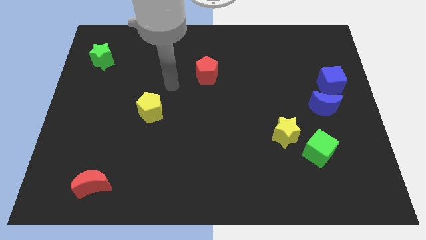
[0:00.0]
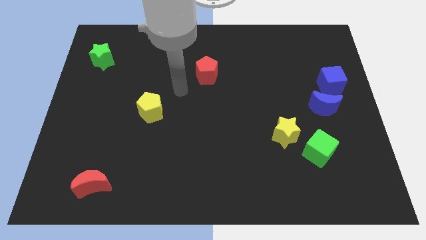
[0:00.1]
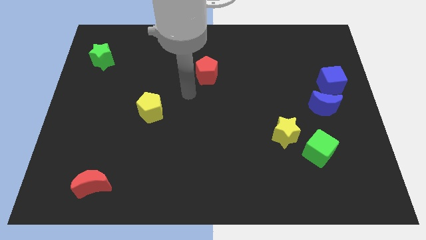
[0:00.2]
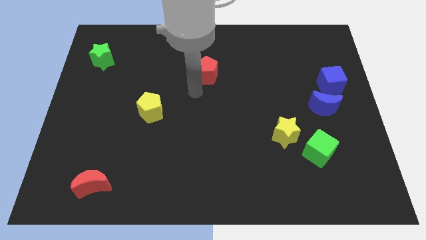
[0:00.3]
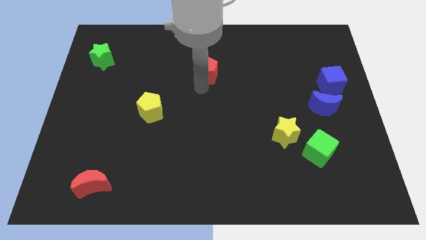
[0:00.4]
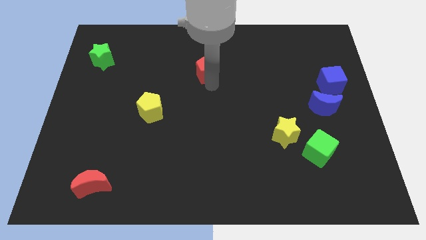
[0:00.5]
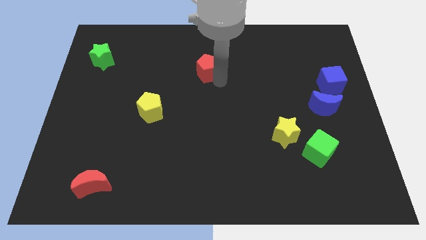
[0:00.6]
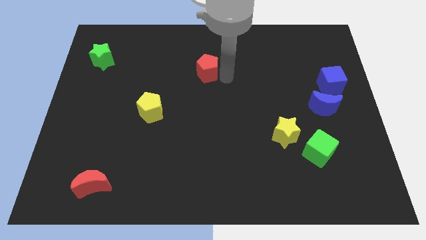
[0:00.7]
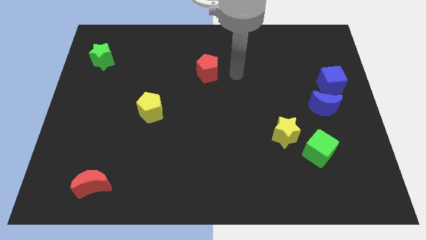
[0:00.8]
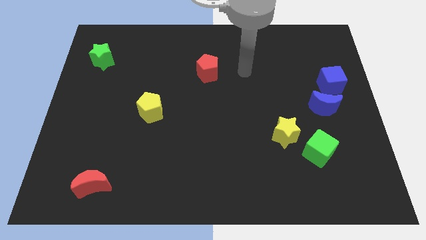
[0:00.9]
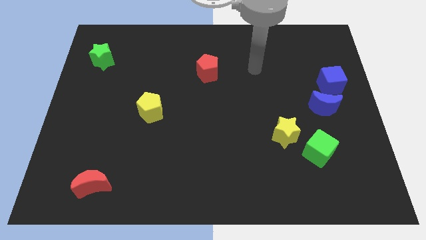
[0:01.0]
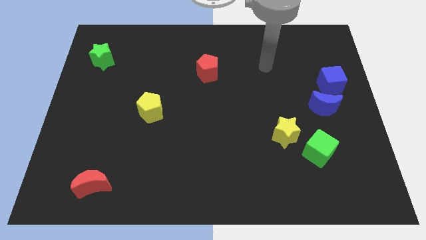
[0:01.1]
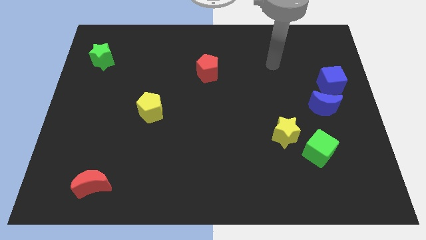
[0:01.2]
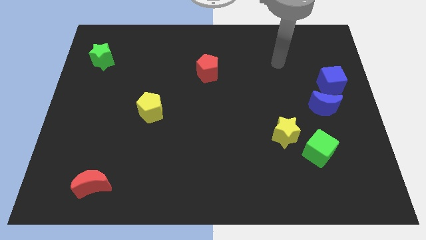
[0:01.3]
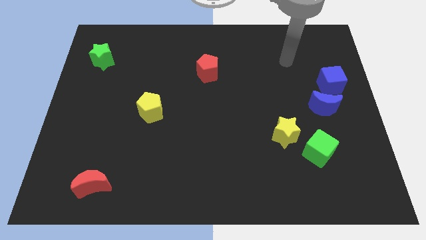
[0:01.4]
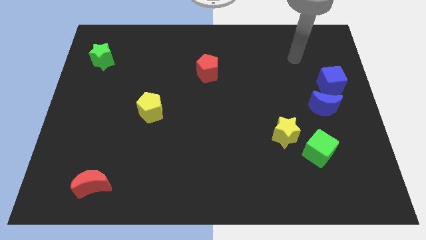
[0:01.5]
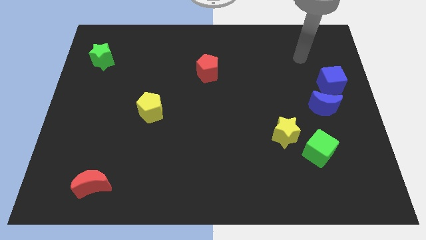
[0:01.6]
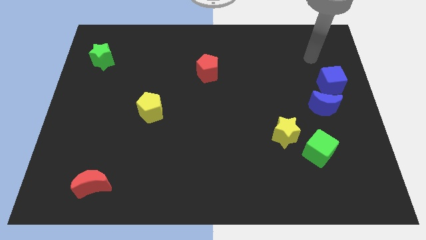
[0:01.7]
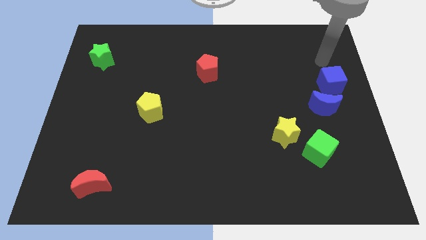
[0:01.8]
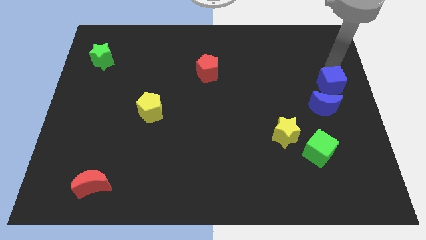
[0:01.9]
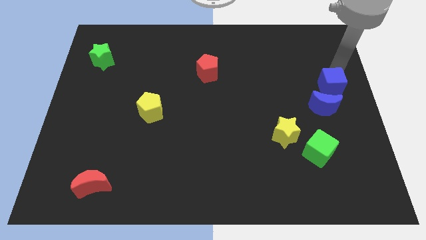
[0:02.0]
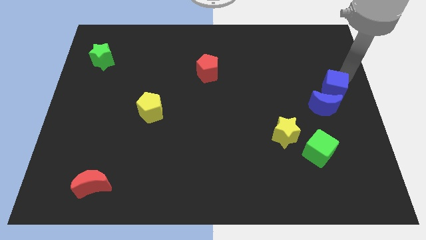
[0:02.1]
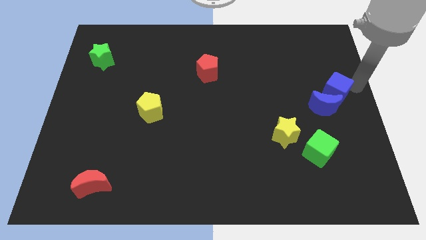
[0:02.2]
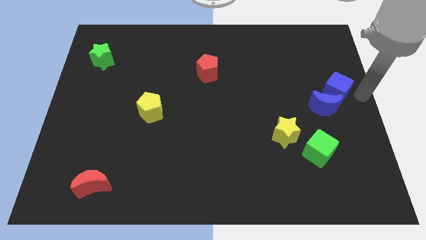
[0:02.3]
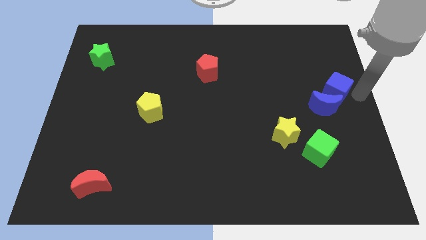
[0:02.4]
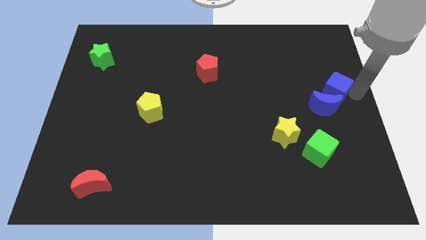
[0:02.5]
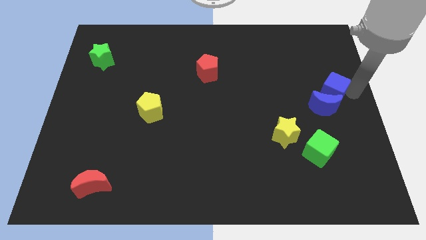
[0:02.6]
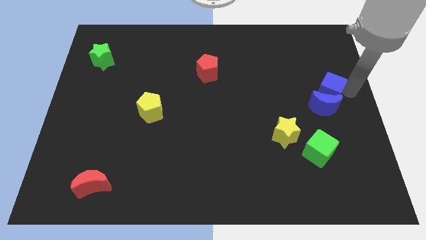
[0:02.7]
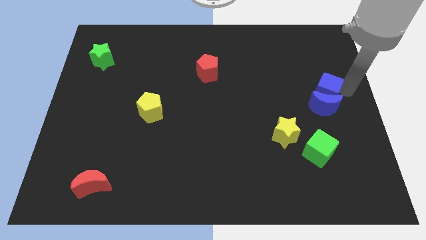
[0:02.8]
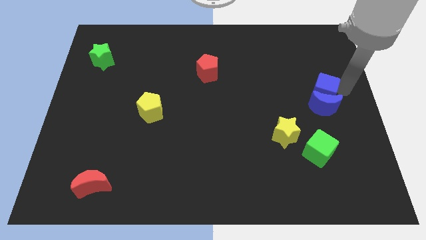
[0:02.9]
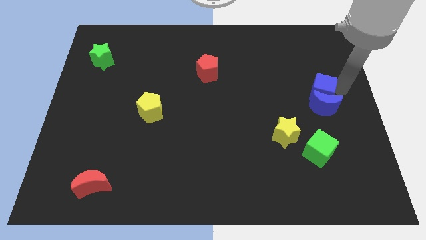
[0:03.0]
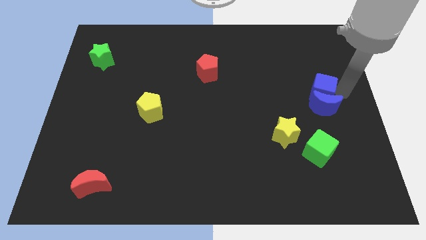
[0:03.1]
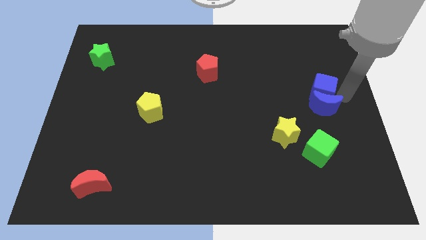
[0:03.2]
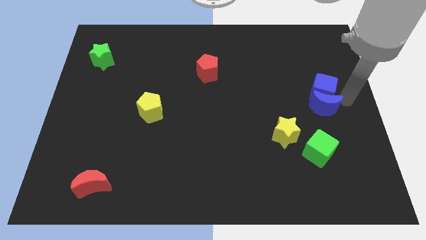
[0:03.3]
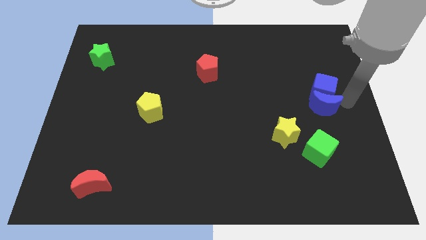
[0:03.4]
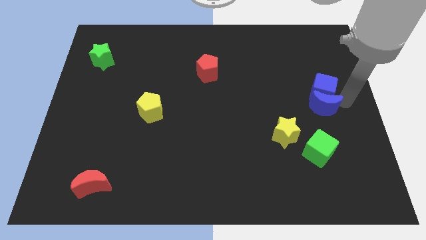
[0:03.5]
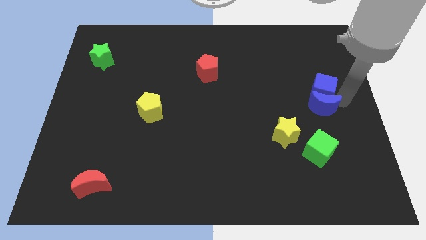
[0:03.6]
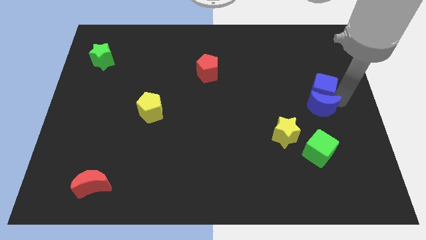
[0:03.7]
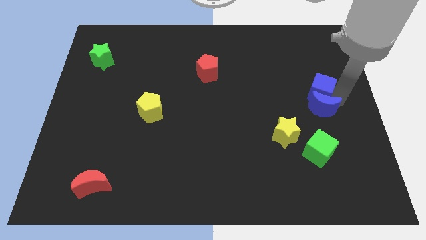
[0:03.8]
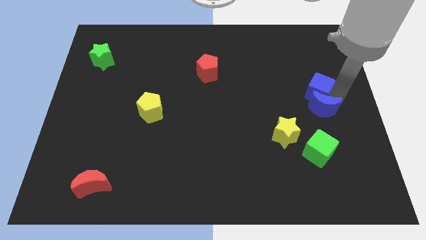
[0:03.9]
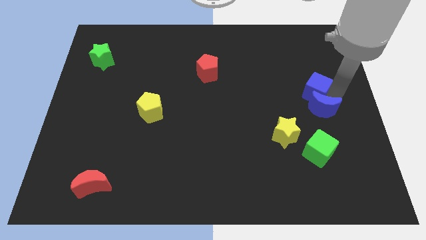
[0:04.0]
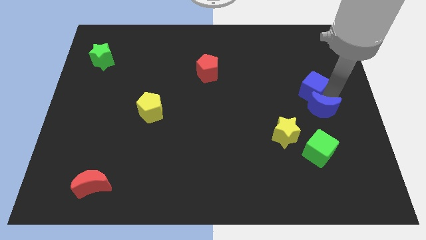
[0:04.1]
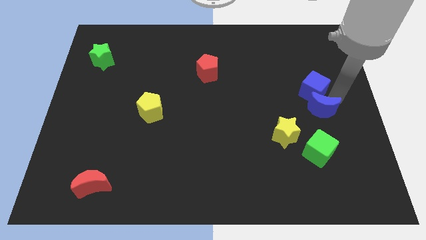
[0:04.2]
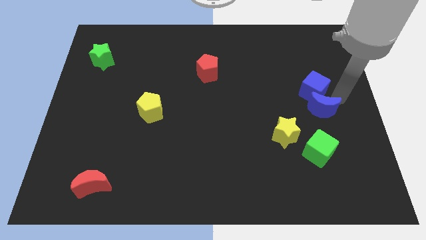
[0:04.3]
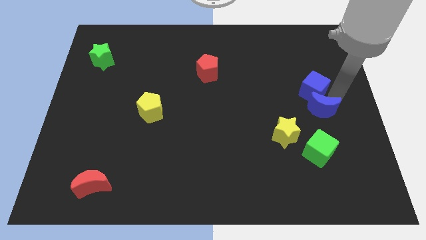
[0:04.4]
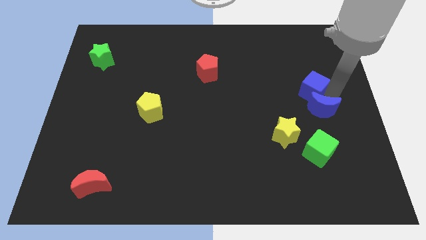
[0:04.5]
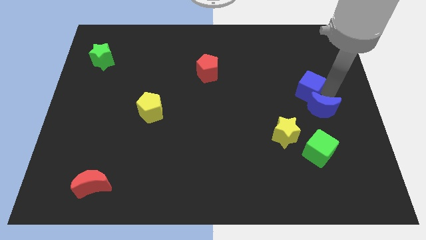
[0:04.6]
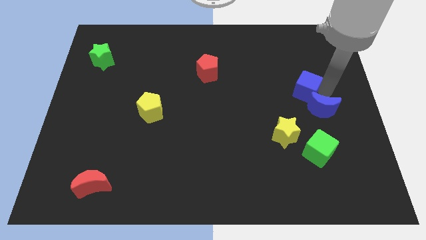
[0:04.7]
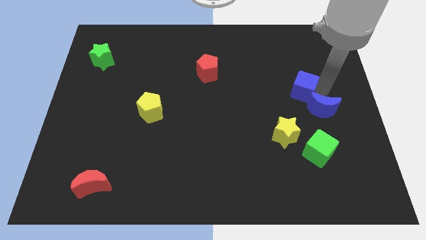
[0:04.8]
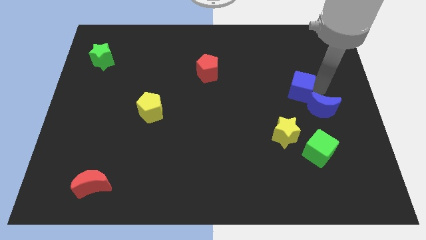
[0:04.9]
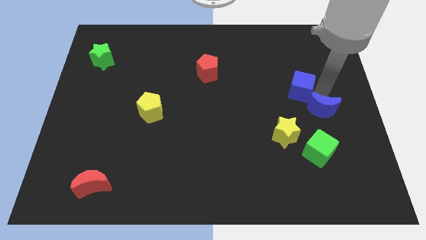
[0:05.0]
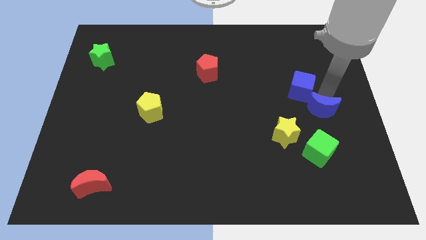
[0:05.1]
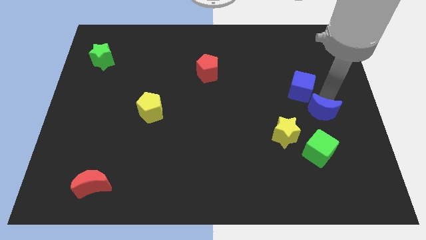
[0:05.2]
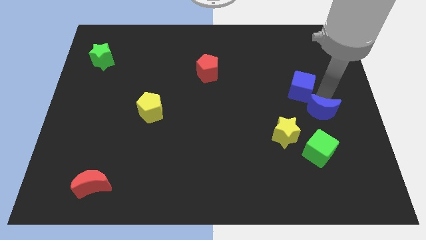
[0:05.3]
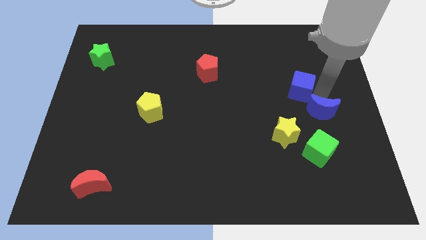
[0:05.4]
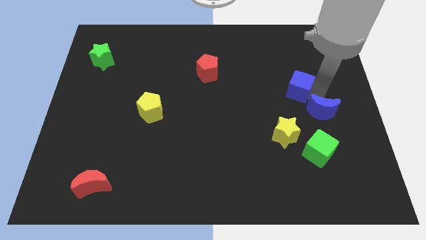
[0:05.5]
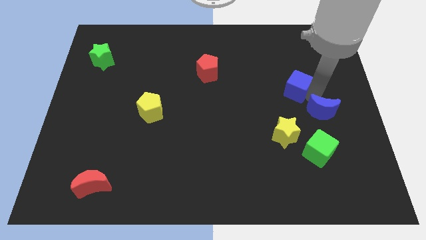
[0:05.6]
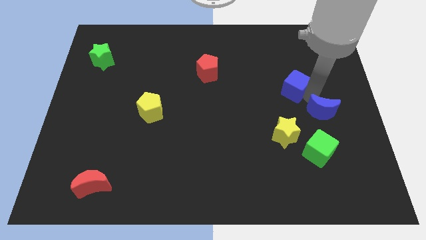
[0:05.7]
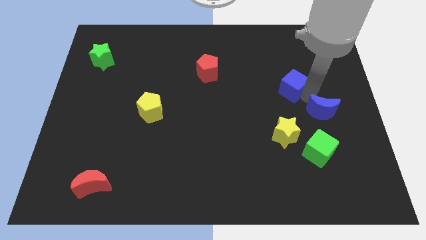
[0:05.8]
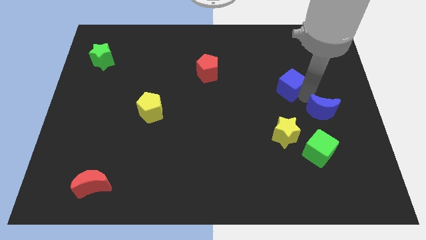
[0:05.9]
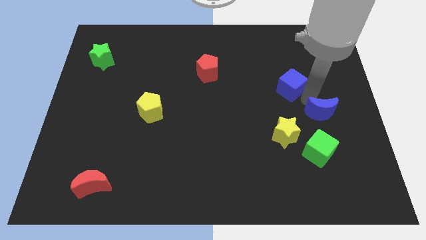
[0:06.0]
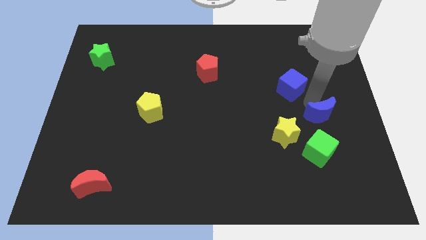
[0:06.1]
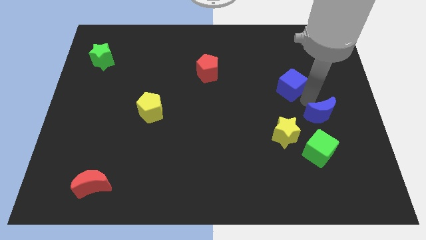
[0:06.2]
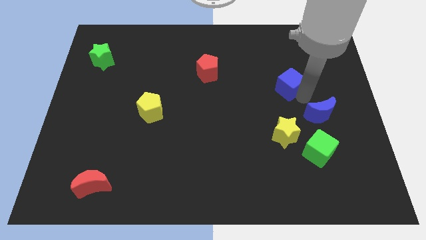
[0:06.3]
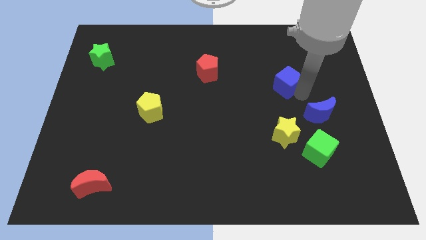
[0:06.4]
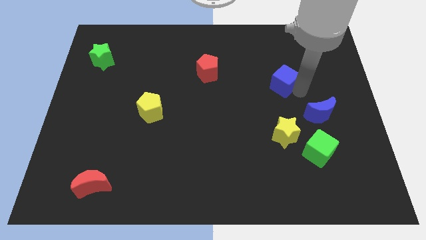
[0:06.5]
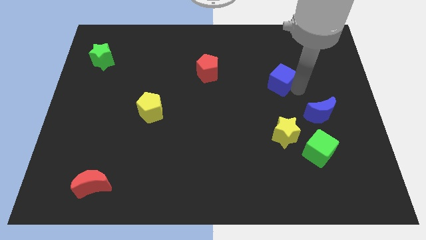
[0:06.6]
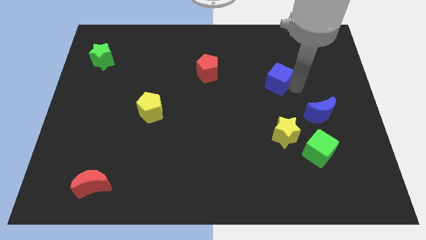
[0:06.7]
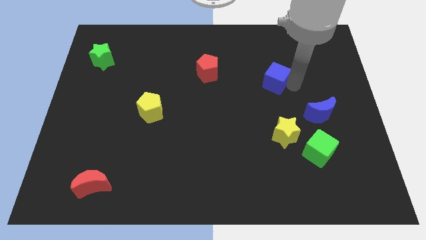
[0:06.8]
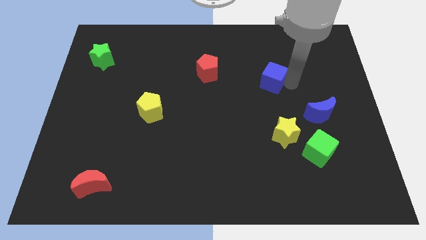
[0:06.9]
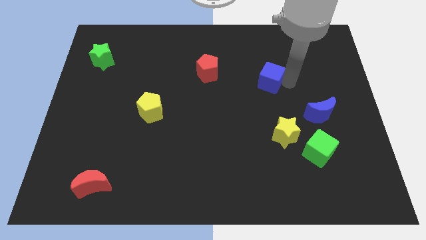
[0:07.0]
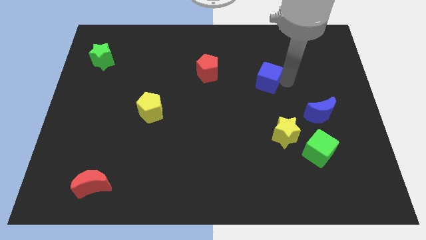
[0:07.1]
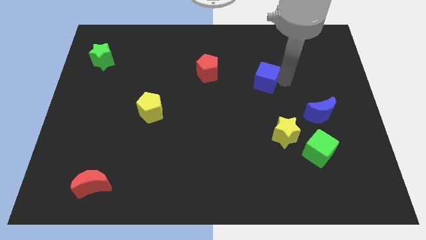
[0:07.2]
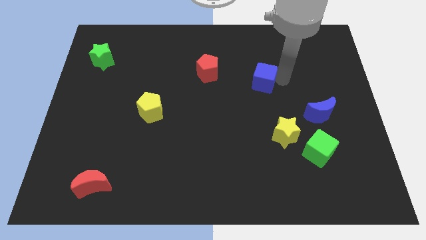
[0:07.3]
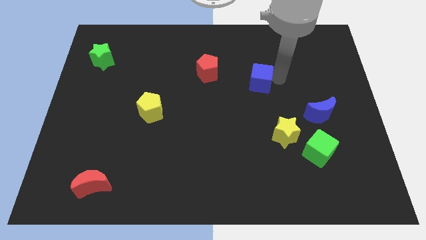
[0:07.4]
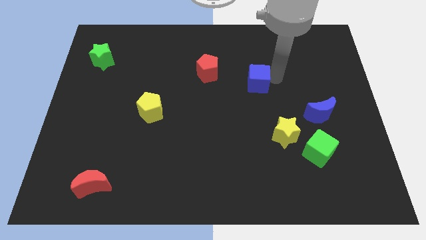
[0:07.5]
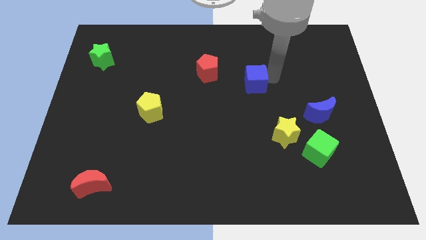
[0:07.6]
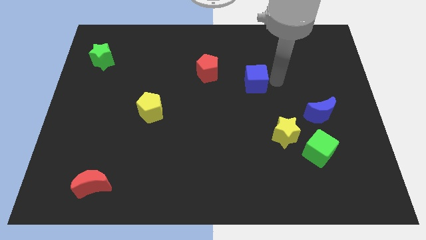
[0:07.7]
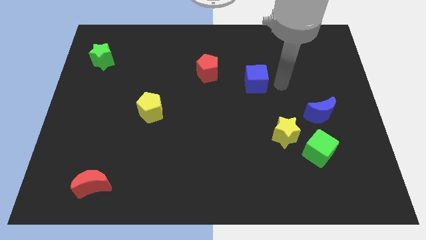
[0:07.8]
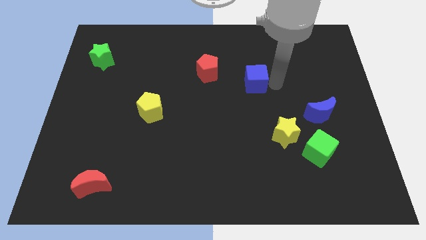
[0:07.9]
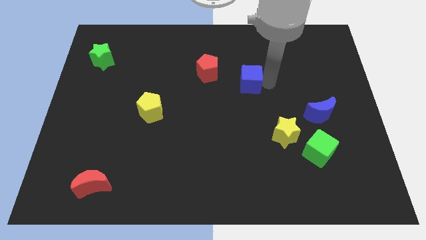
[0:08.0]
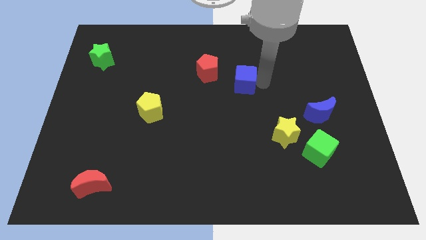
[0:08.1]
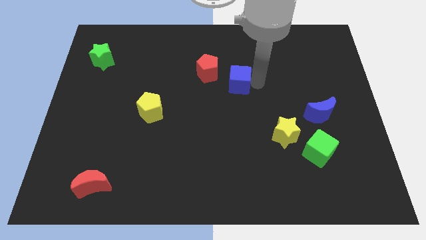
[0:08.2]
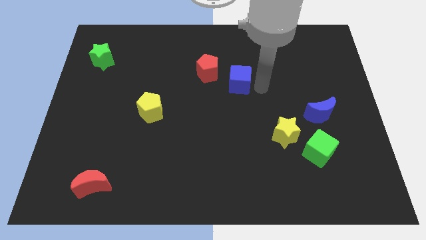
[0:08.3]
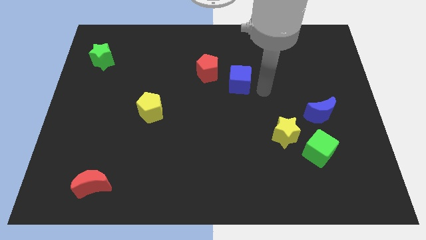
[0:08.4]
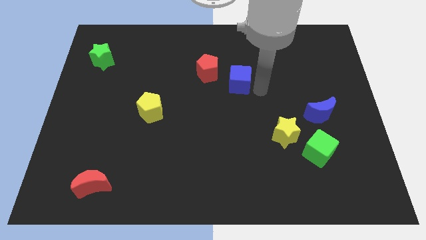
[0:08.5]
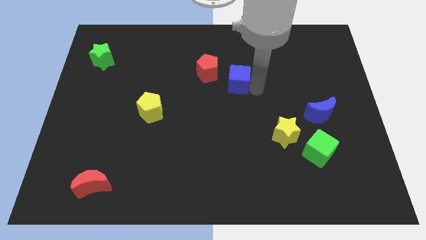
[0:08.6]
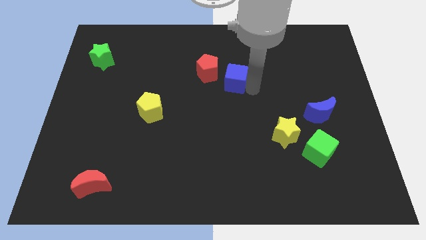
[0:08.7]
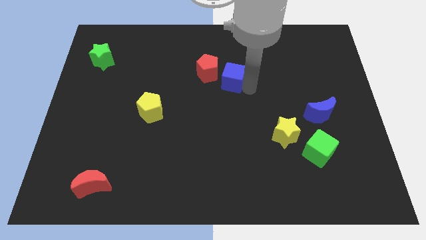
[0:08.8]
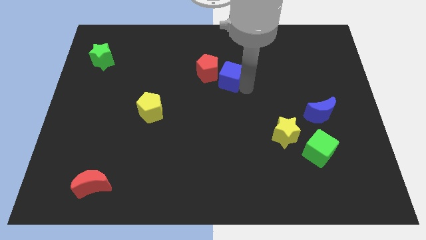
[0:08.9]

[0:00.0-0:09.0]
slide the blue cube to the red pentagon
